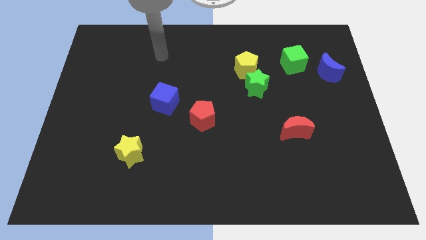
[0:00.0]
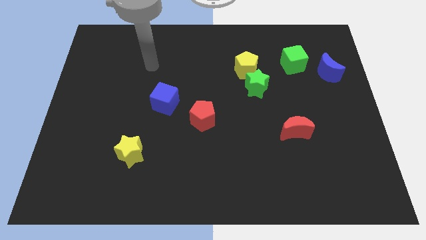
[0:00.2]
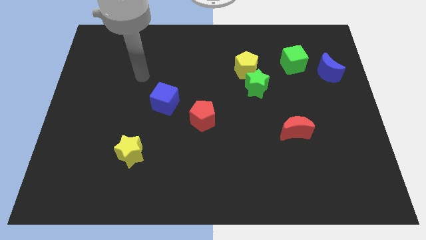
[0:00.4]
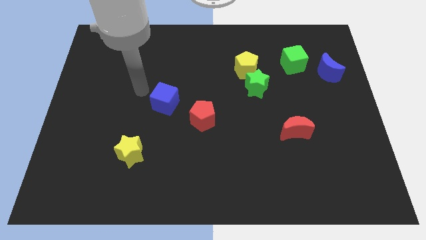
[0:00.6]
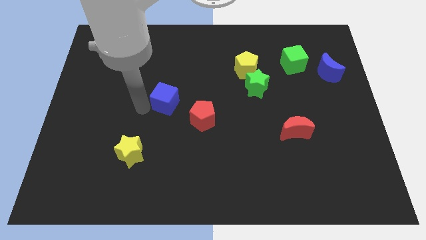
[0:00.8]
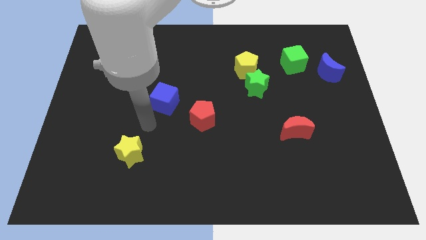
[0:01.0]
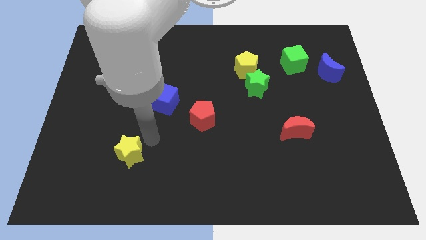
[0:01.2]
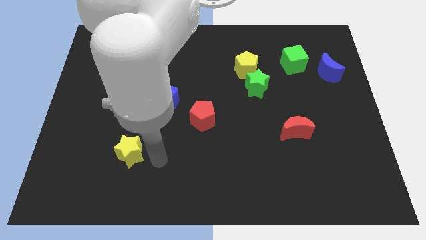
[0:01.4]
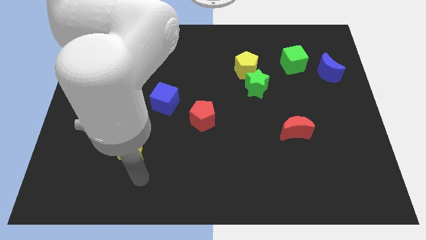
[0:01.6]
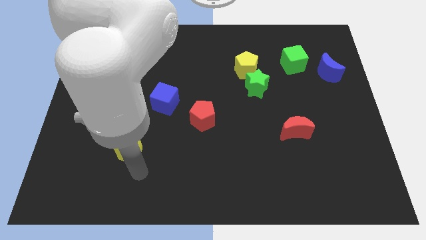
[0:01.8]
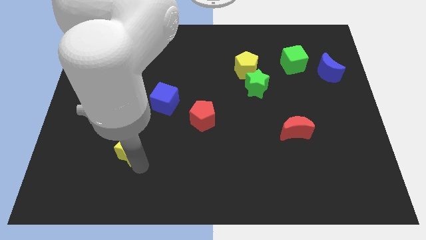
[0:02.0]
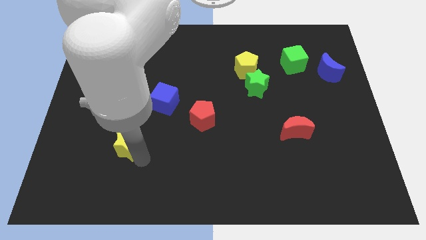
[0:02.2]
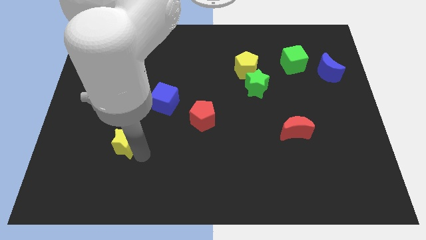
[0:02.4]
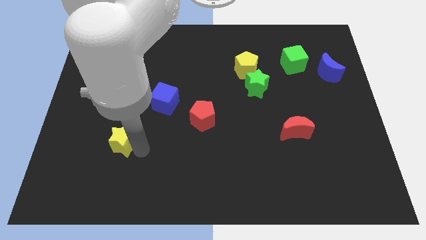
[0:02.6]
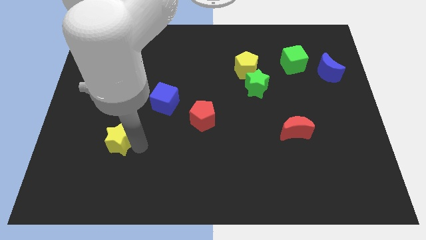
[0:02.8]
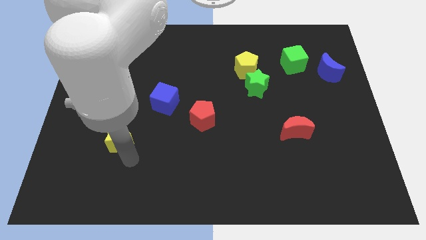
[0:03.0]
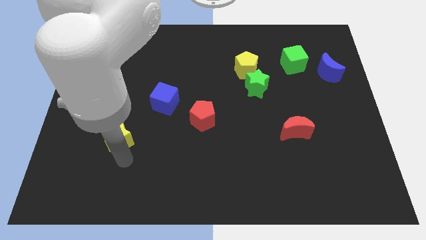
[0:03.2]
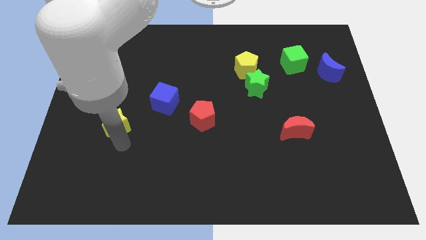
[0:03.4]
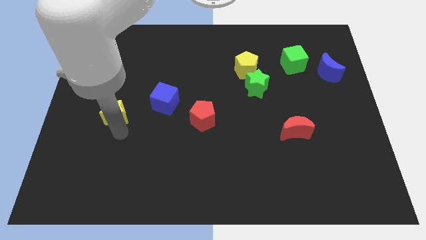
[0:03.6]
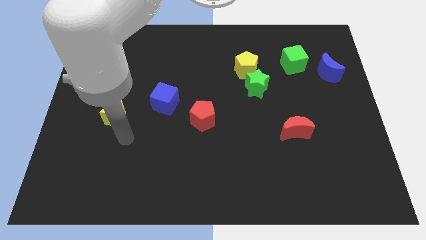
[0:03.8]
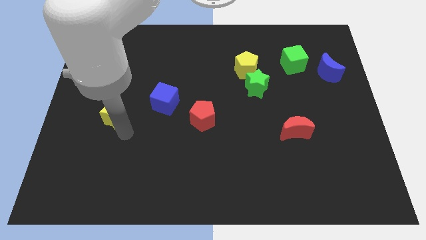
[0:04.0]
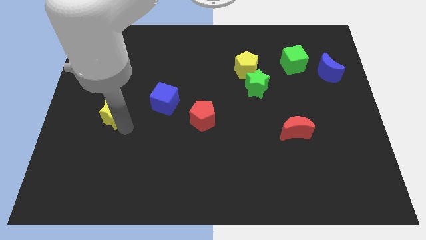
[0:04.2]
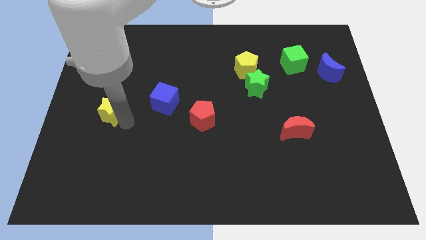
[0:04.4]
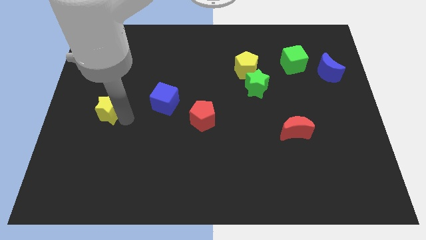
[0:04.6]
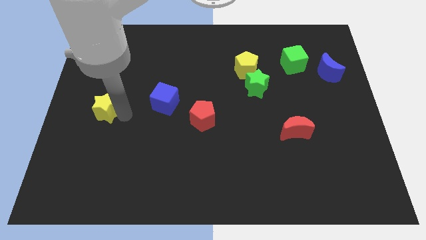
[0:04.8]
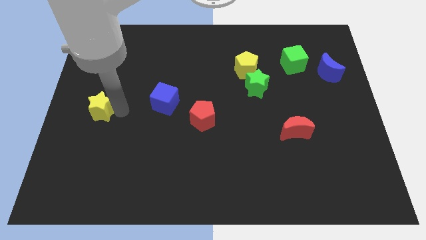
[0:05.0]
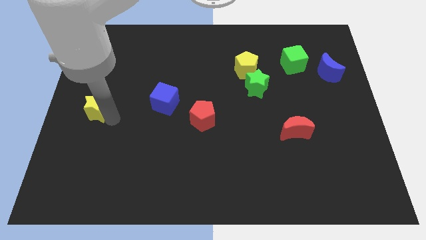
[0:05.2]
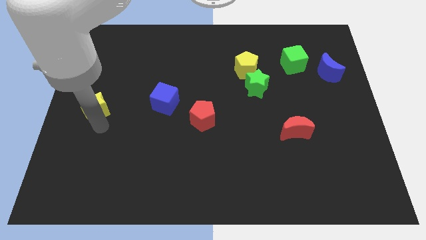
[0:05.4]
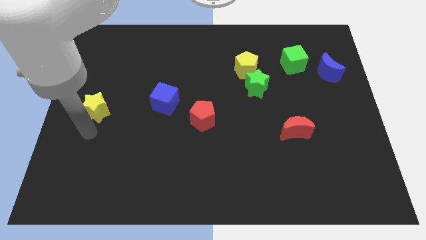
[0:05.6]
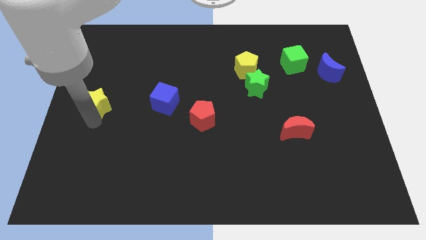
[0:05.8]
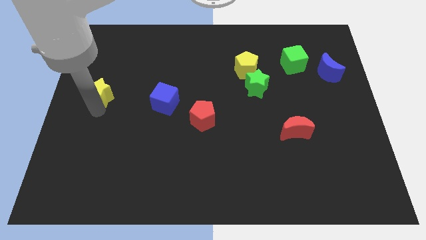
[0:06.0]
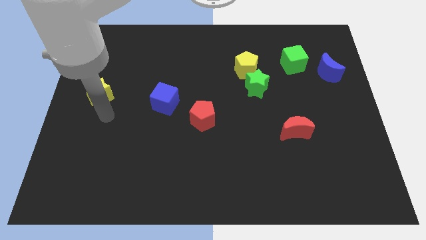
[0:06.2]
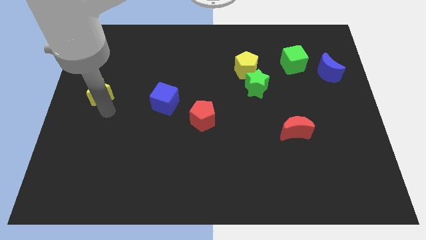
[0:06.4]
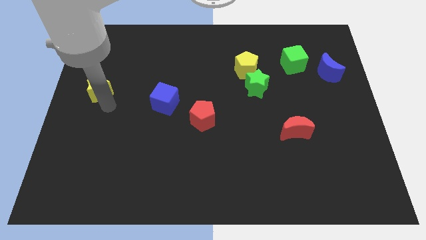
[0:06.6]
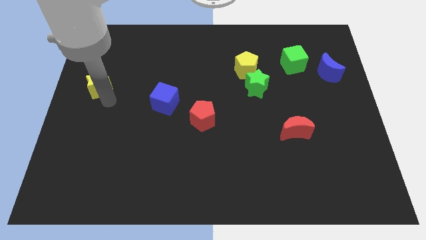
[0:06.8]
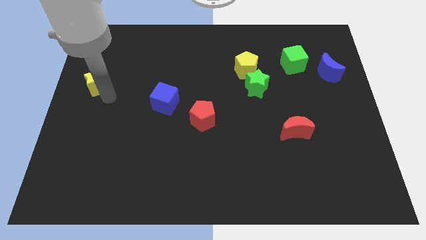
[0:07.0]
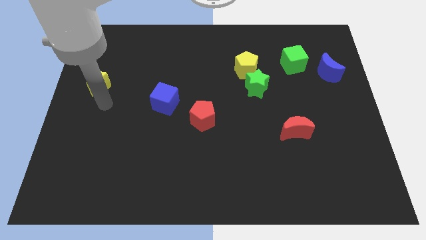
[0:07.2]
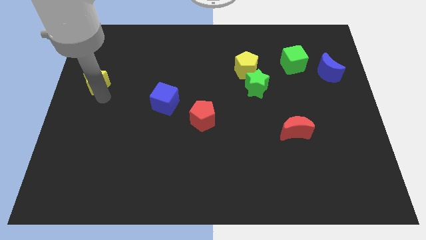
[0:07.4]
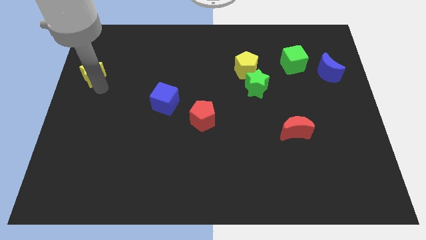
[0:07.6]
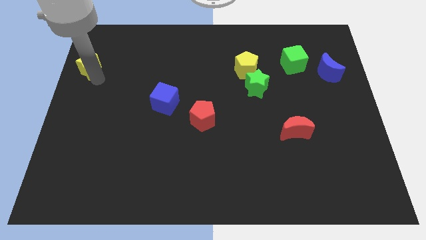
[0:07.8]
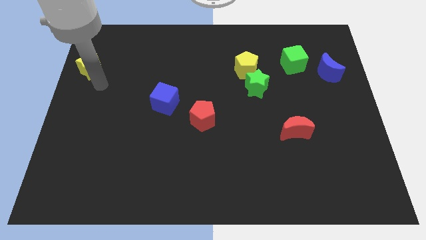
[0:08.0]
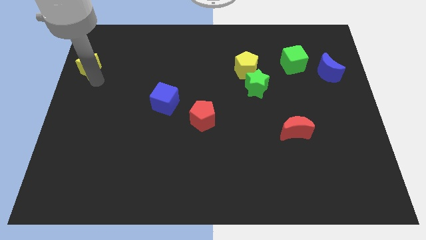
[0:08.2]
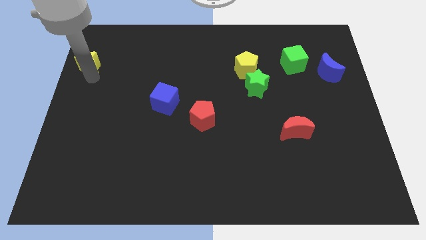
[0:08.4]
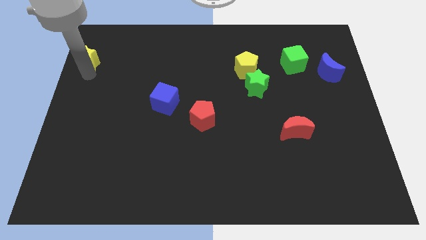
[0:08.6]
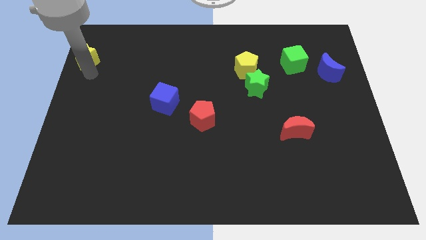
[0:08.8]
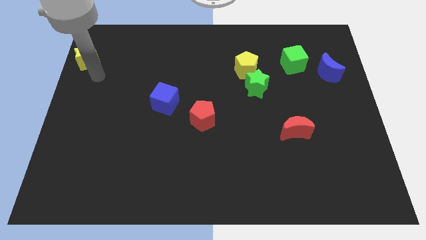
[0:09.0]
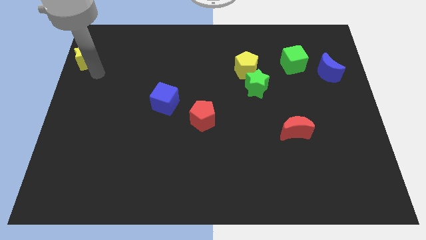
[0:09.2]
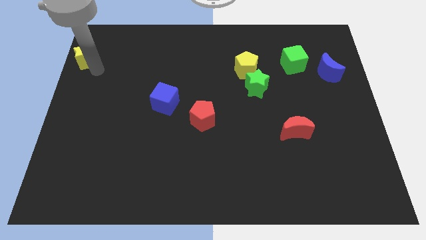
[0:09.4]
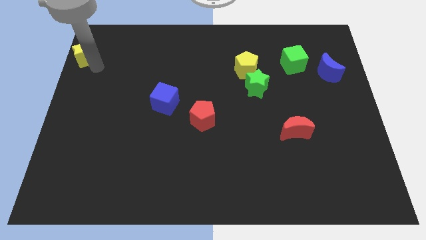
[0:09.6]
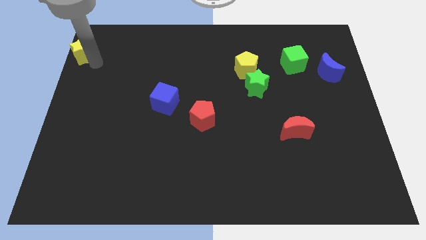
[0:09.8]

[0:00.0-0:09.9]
slide the yellow star to the top left

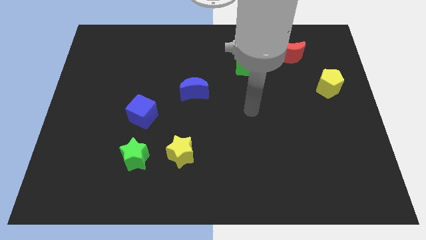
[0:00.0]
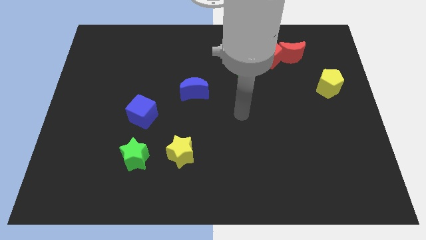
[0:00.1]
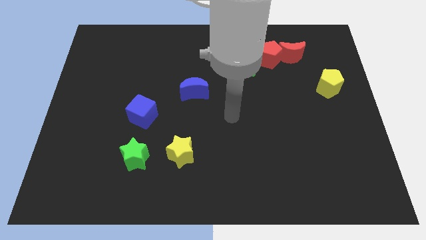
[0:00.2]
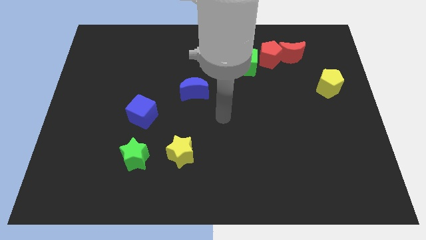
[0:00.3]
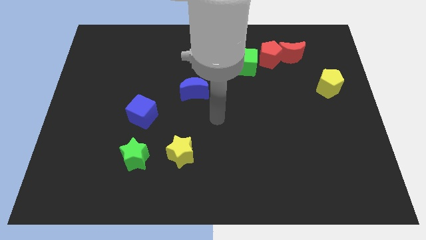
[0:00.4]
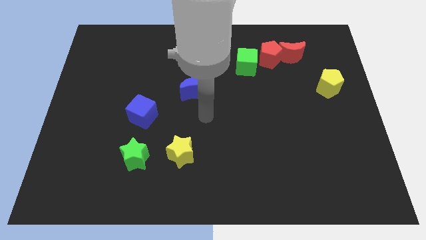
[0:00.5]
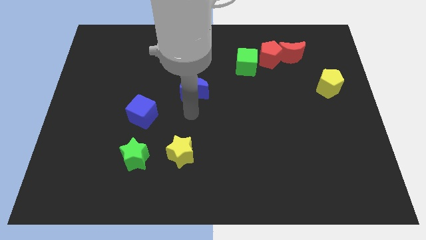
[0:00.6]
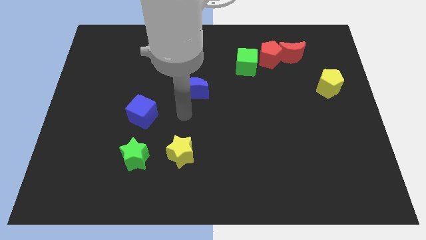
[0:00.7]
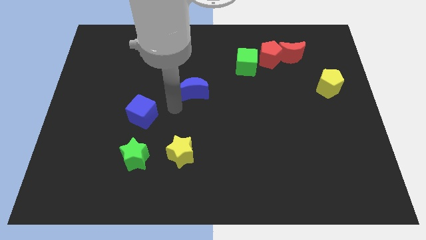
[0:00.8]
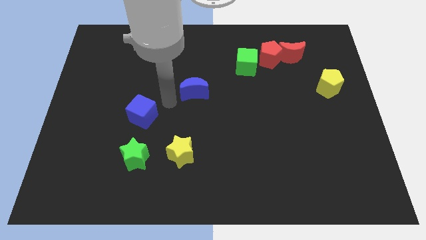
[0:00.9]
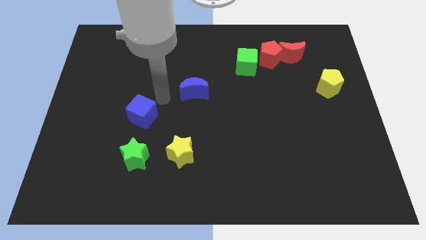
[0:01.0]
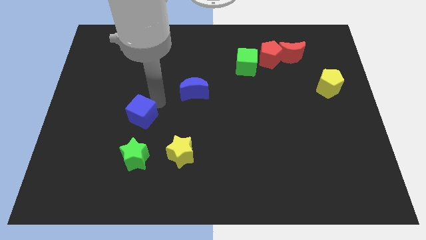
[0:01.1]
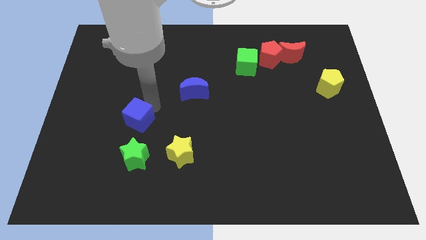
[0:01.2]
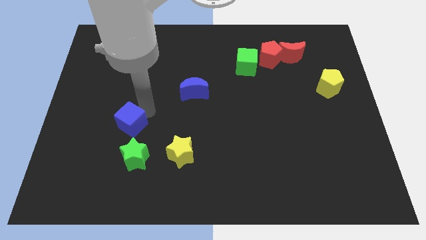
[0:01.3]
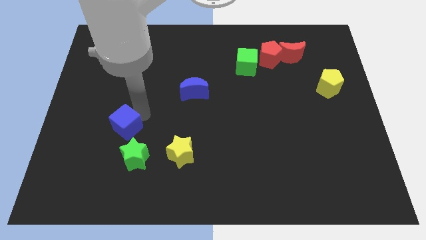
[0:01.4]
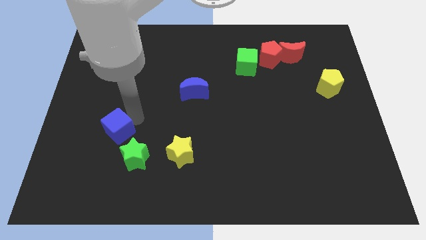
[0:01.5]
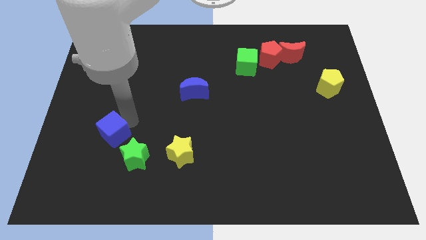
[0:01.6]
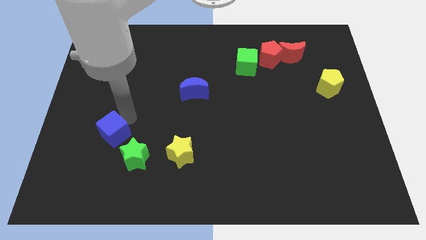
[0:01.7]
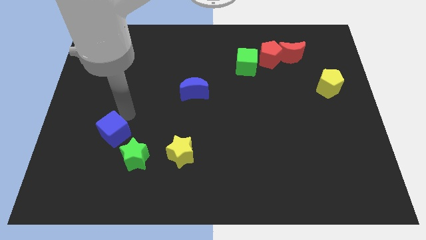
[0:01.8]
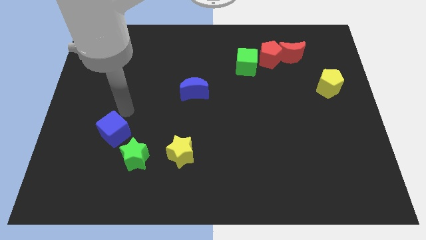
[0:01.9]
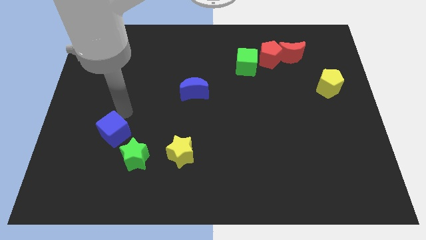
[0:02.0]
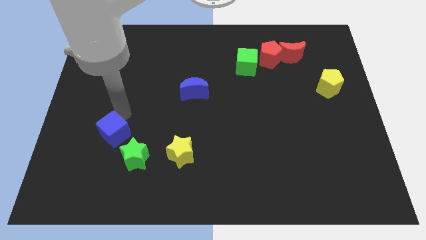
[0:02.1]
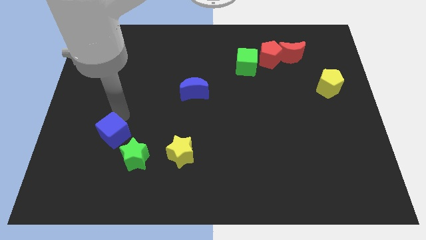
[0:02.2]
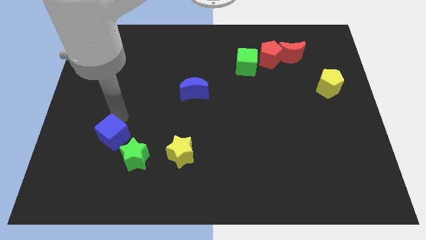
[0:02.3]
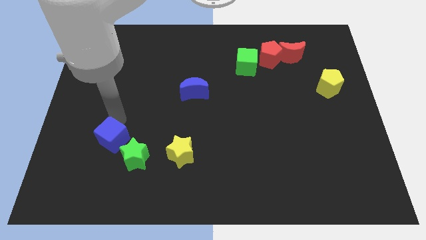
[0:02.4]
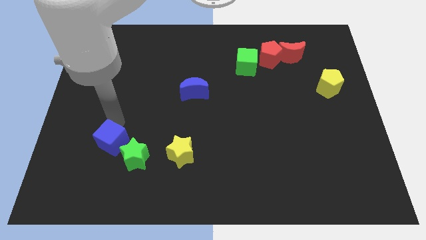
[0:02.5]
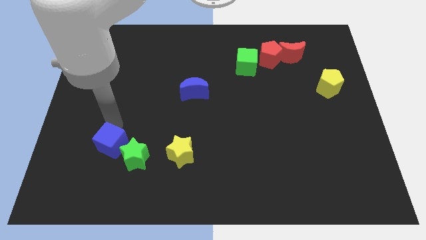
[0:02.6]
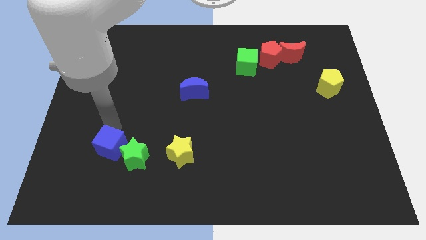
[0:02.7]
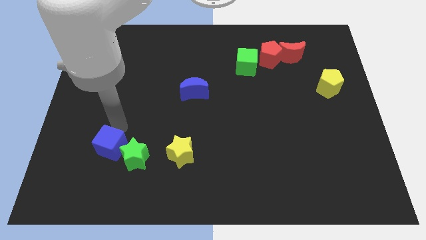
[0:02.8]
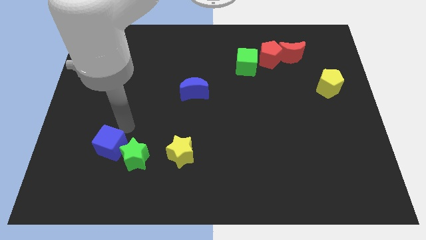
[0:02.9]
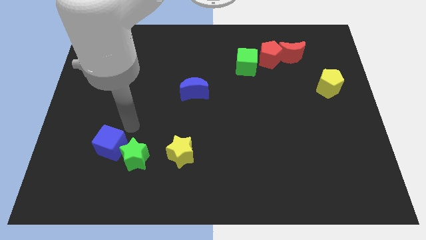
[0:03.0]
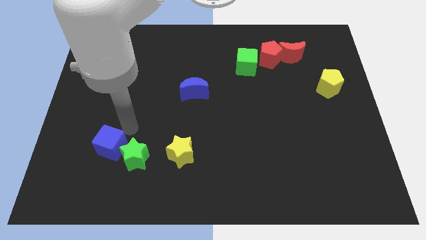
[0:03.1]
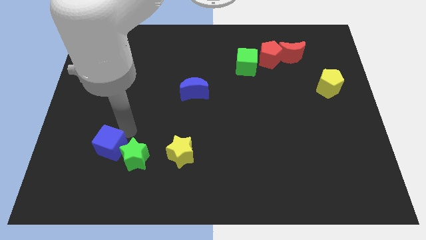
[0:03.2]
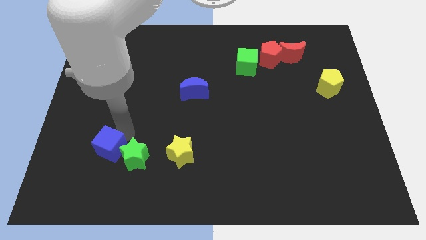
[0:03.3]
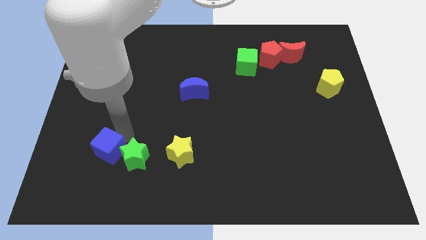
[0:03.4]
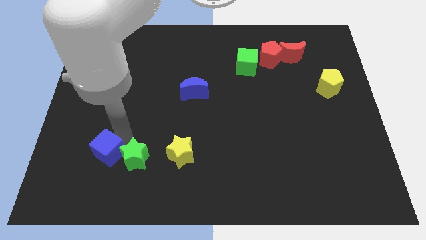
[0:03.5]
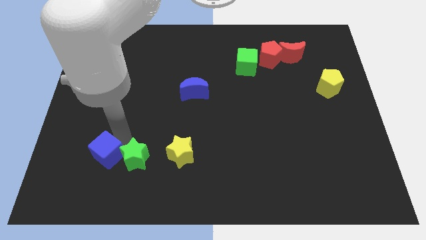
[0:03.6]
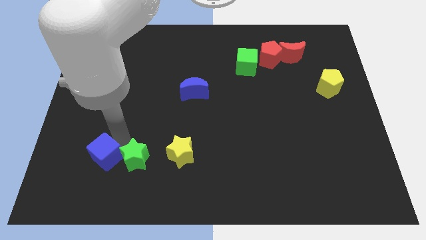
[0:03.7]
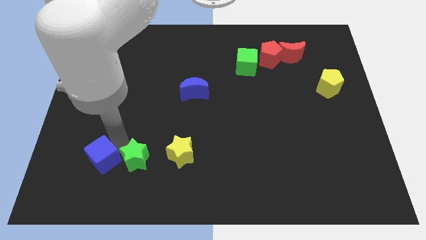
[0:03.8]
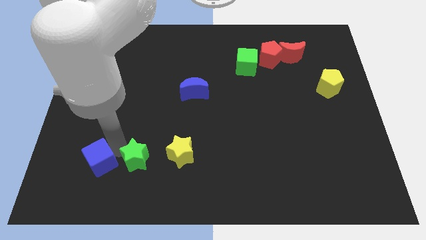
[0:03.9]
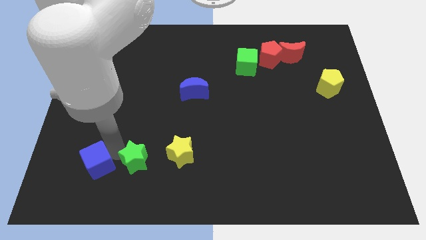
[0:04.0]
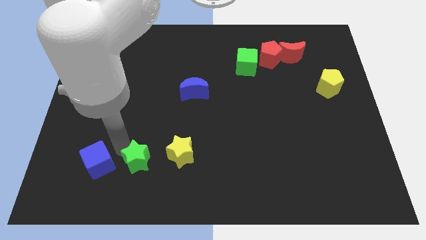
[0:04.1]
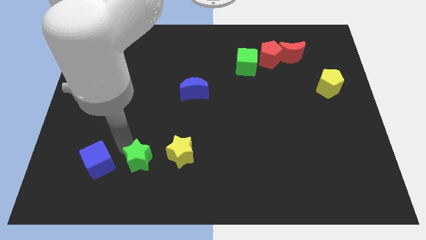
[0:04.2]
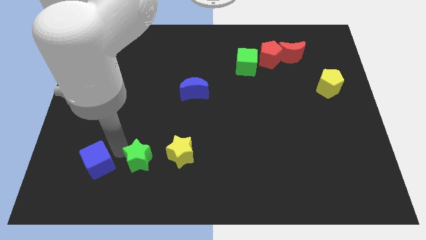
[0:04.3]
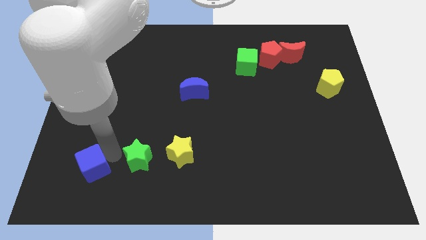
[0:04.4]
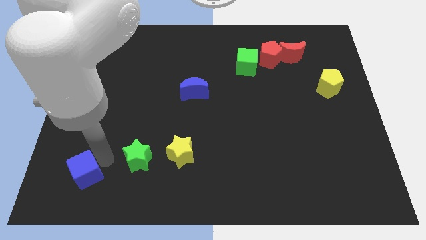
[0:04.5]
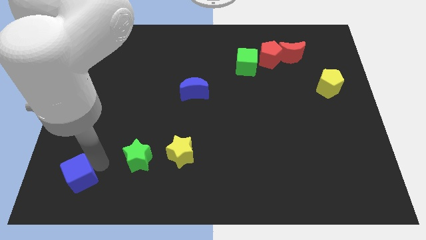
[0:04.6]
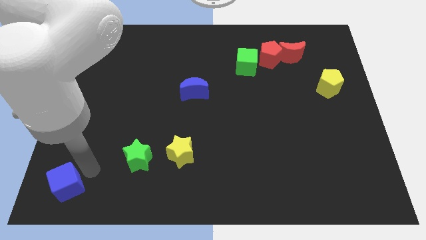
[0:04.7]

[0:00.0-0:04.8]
move the blue cube to the bottom left of the board
